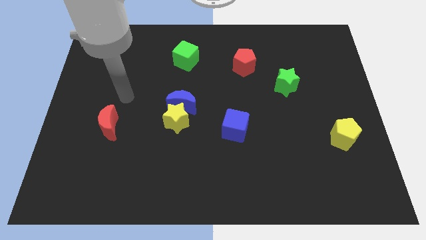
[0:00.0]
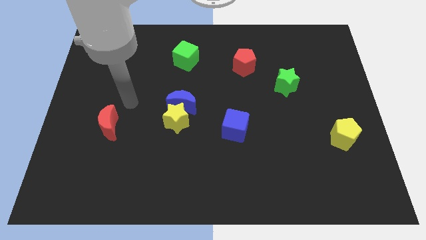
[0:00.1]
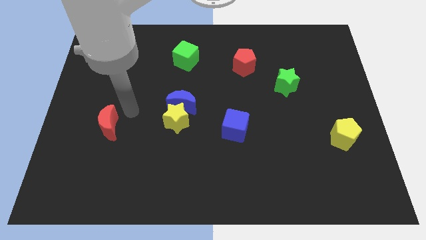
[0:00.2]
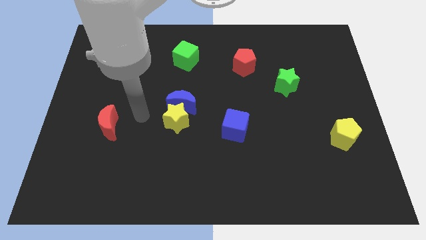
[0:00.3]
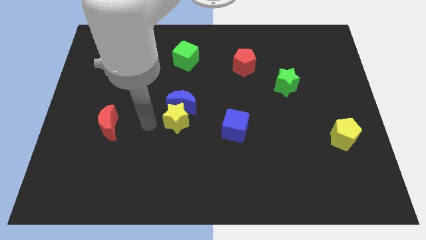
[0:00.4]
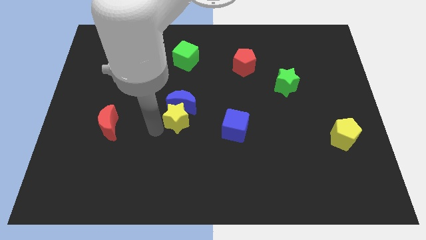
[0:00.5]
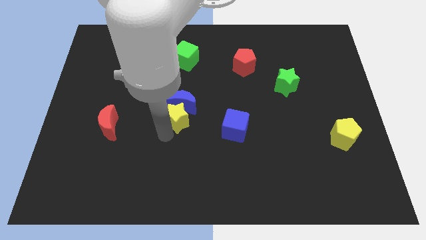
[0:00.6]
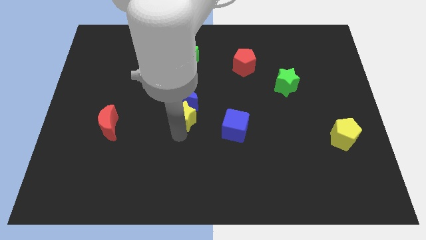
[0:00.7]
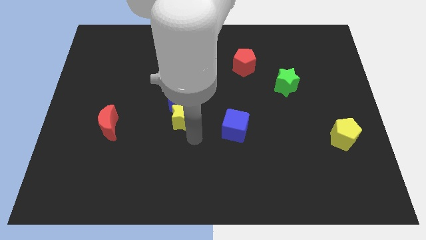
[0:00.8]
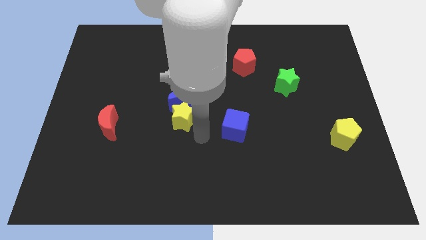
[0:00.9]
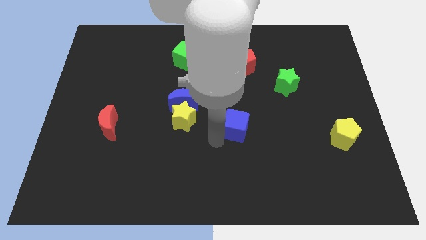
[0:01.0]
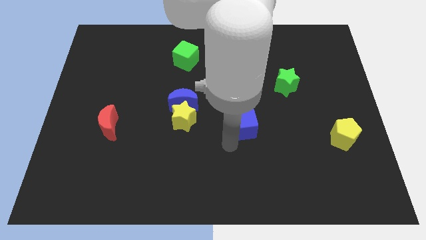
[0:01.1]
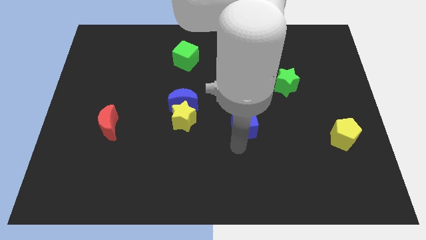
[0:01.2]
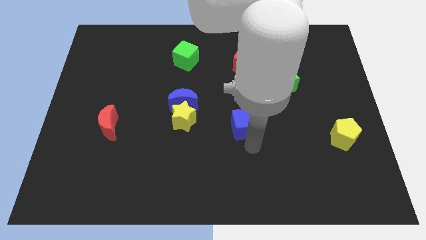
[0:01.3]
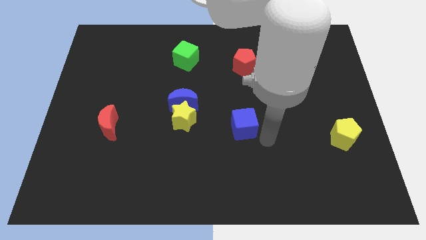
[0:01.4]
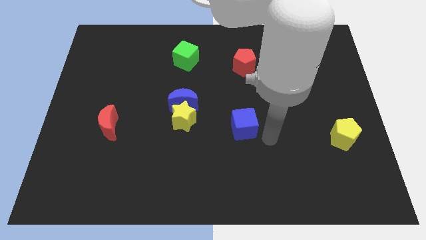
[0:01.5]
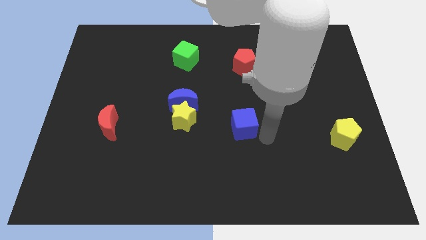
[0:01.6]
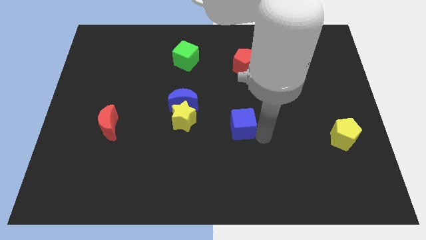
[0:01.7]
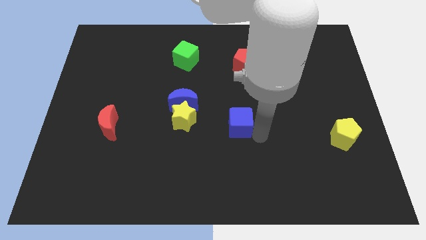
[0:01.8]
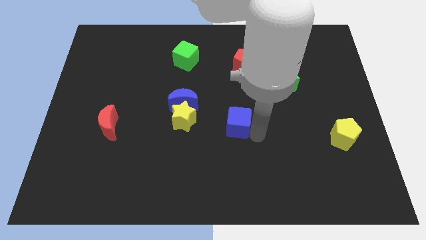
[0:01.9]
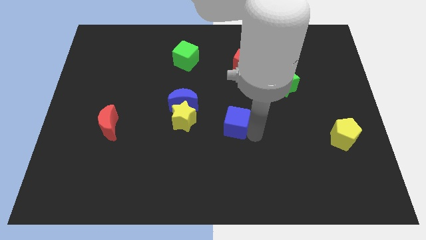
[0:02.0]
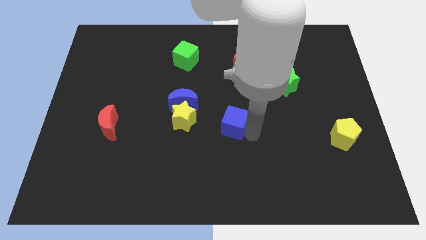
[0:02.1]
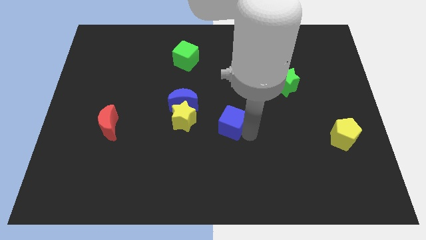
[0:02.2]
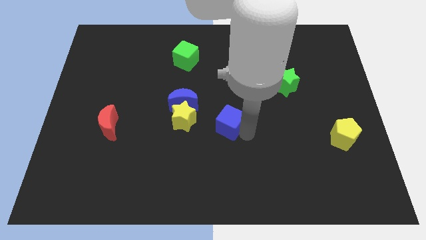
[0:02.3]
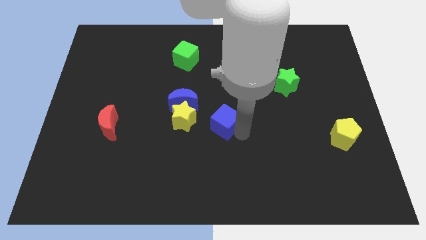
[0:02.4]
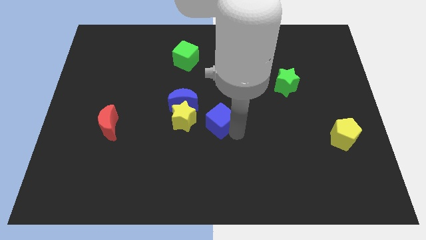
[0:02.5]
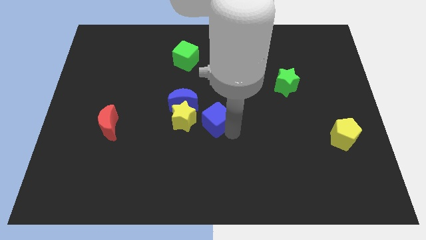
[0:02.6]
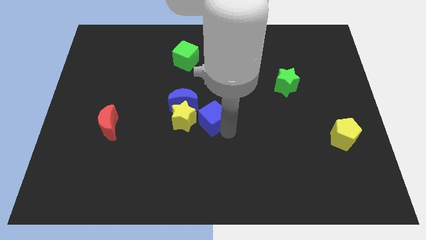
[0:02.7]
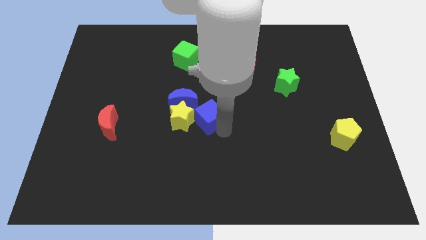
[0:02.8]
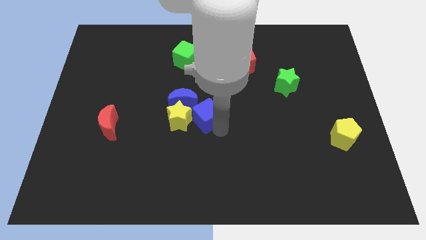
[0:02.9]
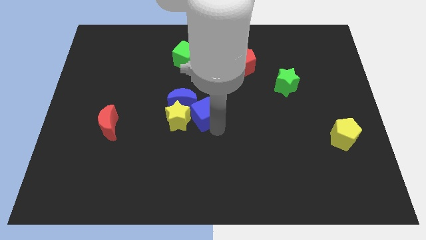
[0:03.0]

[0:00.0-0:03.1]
move the blue cube up and then left somewhat

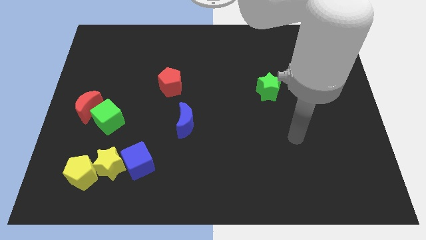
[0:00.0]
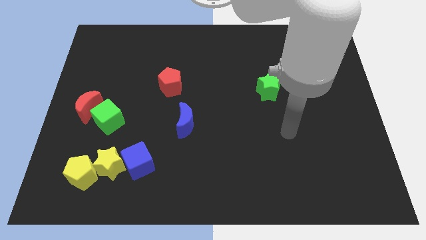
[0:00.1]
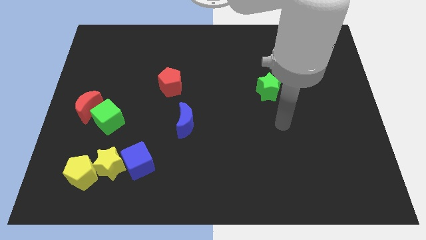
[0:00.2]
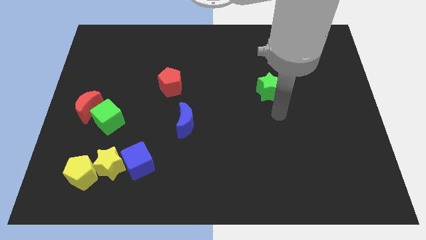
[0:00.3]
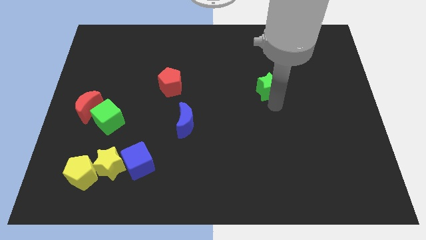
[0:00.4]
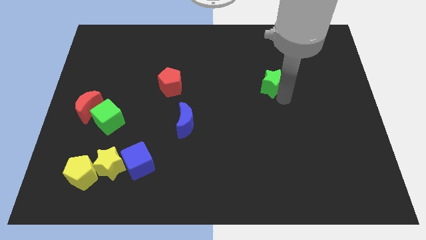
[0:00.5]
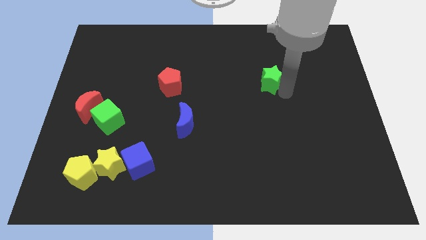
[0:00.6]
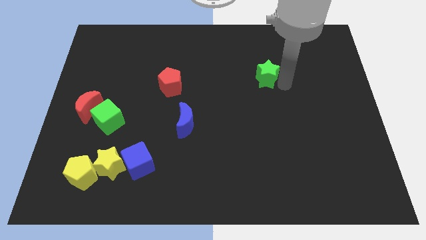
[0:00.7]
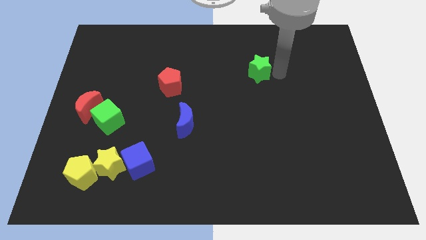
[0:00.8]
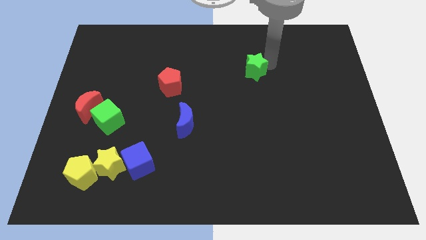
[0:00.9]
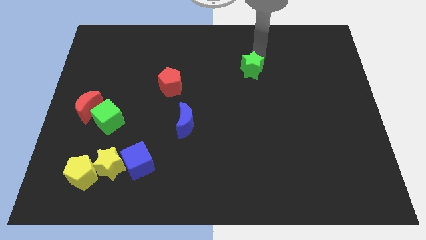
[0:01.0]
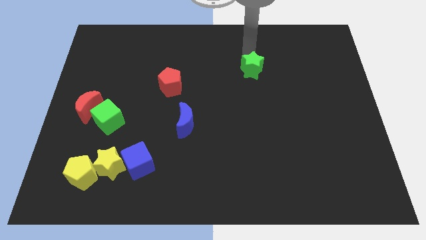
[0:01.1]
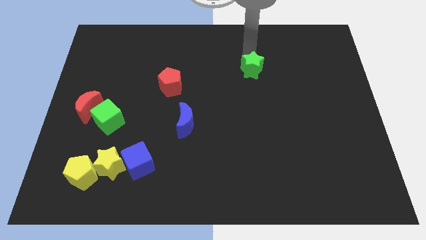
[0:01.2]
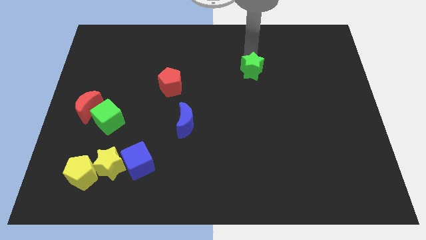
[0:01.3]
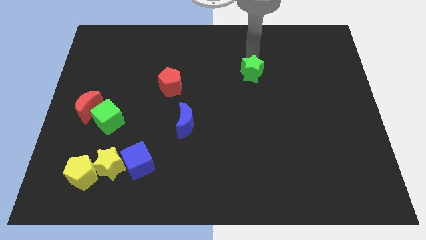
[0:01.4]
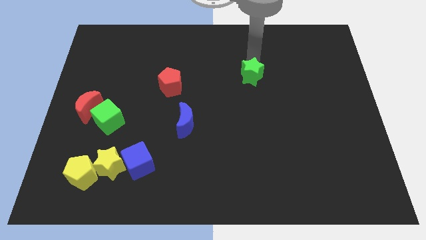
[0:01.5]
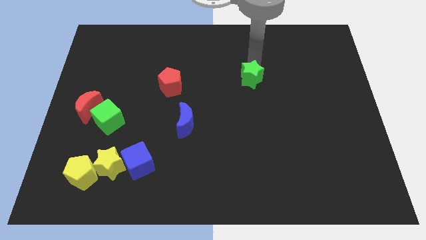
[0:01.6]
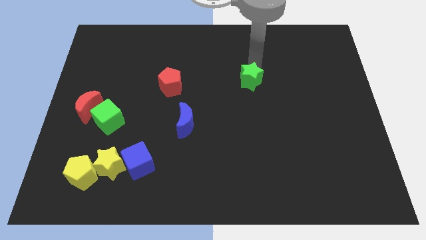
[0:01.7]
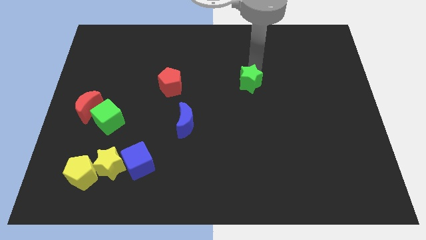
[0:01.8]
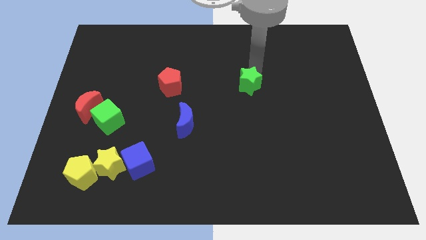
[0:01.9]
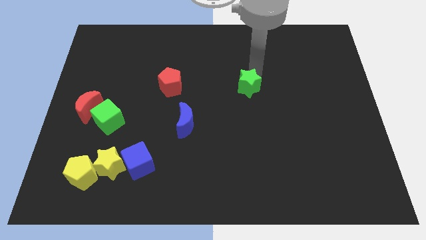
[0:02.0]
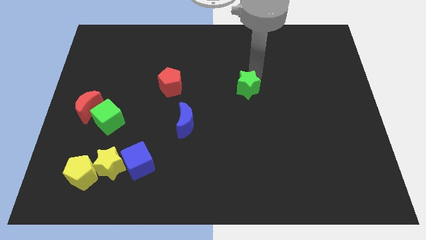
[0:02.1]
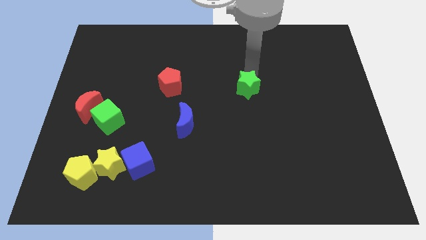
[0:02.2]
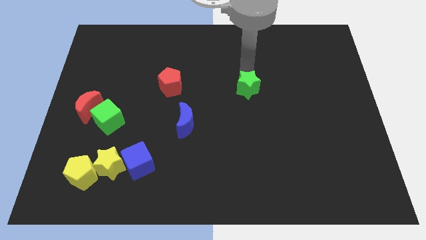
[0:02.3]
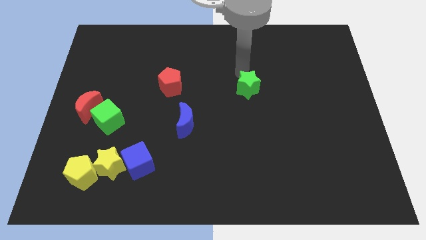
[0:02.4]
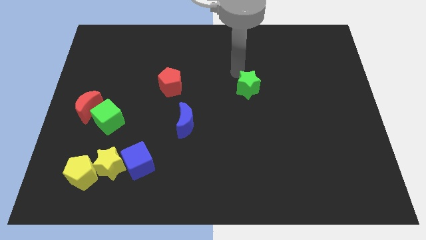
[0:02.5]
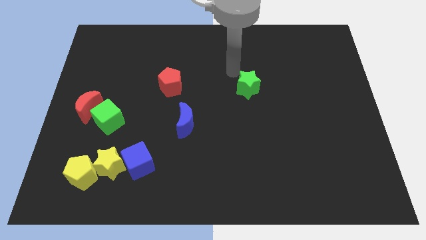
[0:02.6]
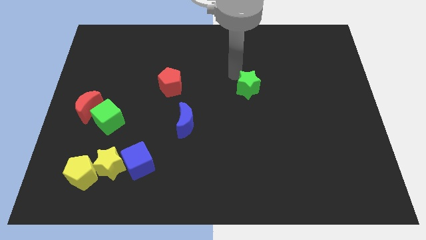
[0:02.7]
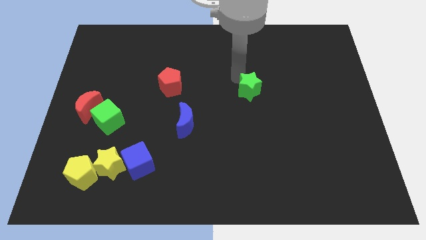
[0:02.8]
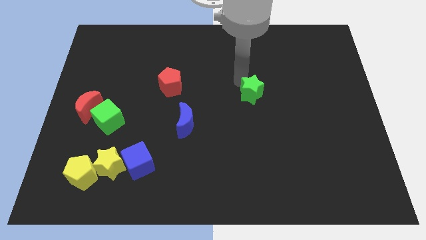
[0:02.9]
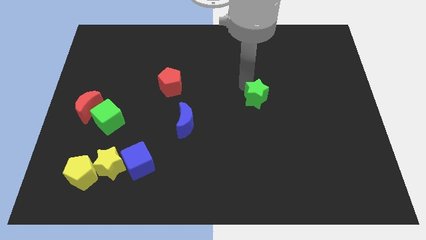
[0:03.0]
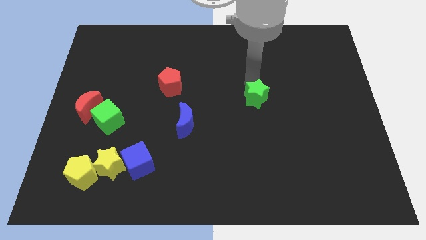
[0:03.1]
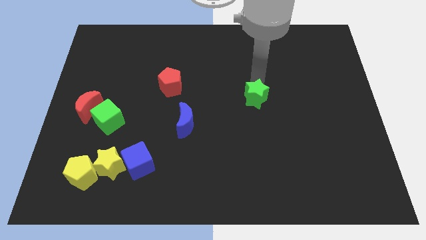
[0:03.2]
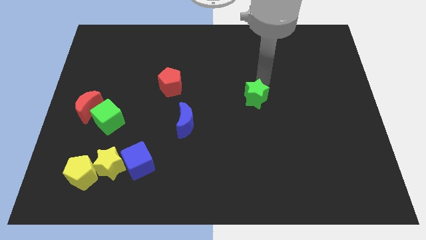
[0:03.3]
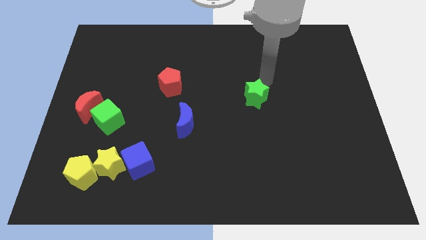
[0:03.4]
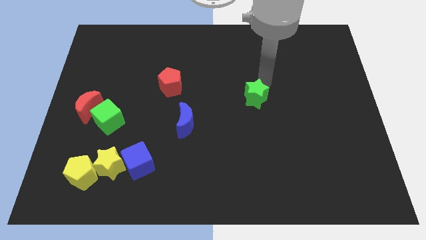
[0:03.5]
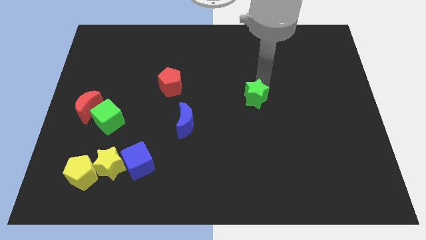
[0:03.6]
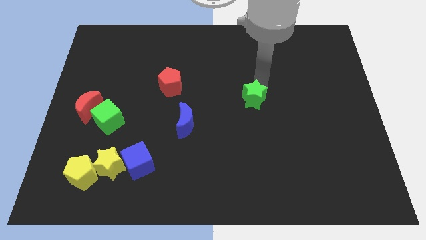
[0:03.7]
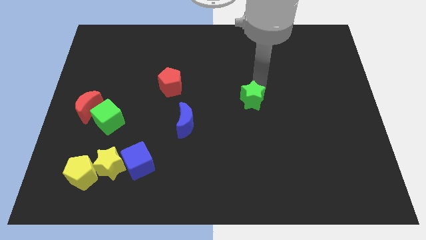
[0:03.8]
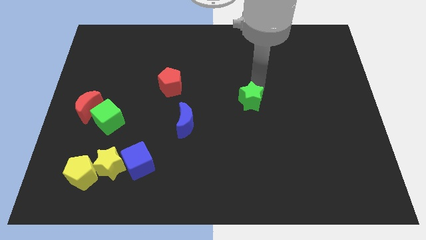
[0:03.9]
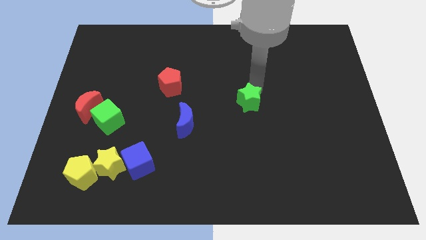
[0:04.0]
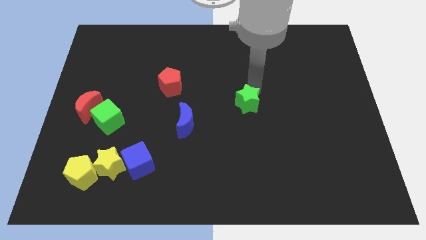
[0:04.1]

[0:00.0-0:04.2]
push the green star diagonally down and to the left somewhat

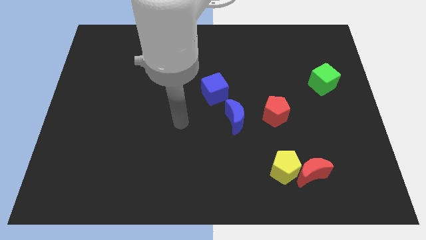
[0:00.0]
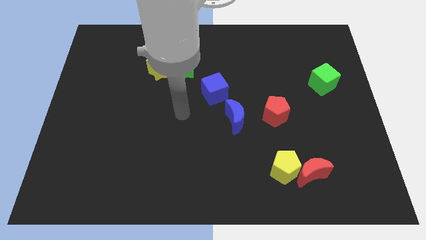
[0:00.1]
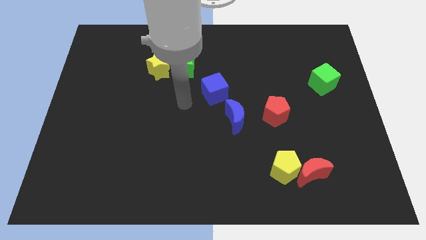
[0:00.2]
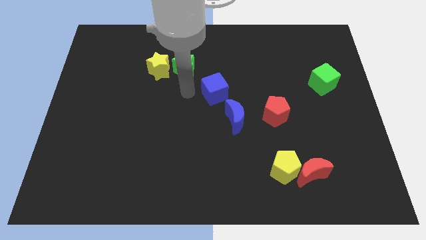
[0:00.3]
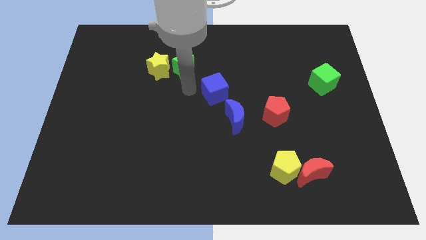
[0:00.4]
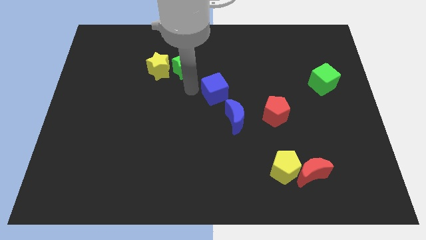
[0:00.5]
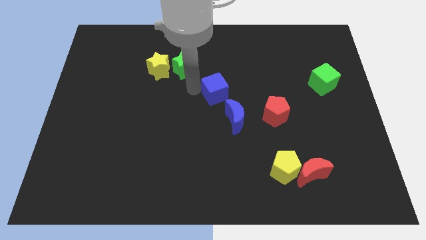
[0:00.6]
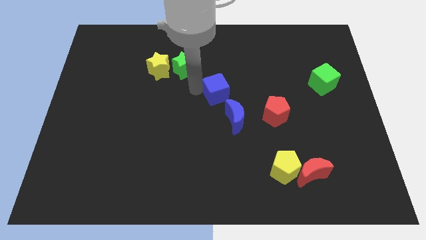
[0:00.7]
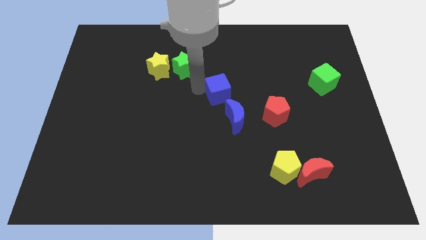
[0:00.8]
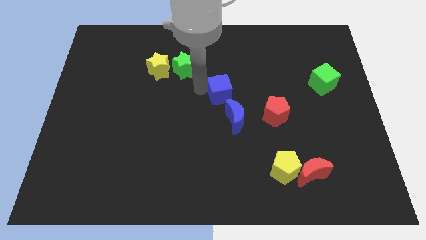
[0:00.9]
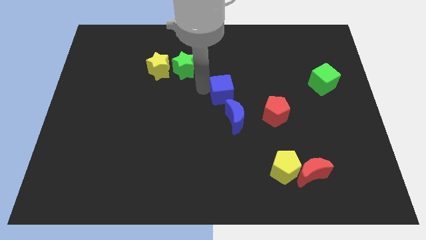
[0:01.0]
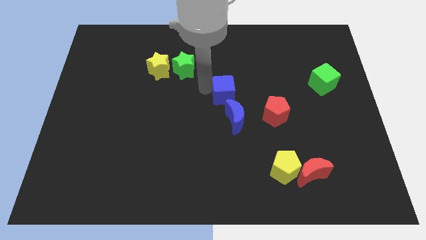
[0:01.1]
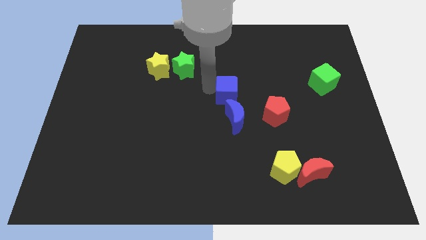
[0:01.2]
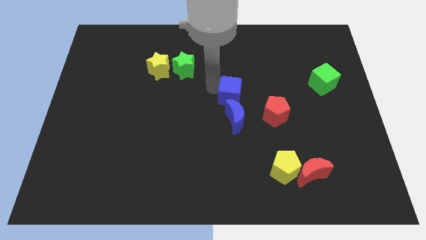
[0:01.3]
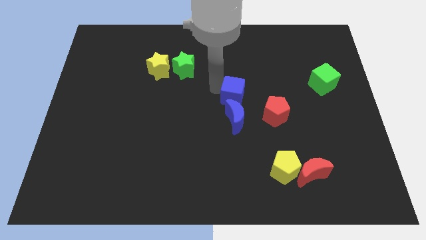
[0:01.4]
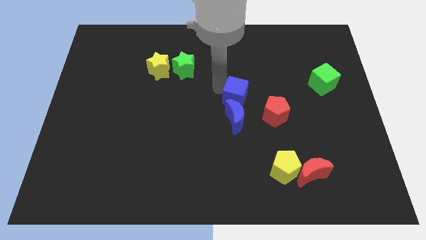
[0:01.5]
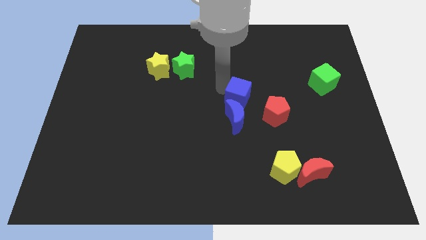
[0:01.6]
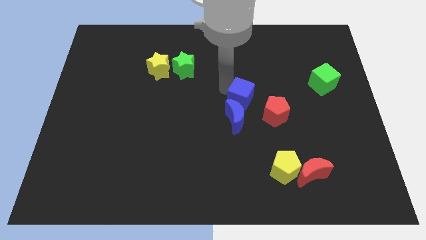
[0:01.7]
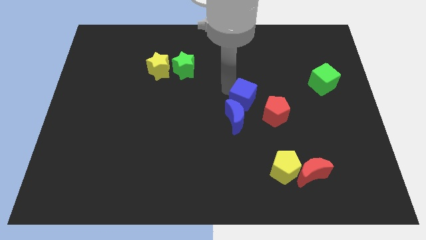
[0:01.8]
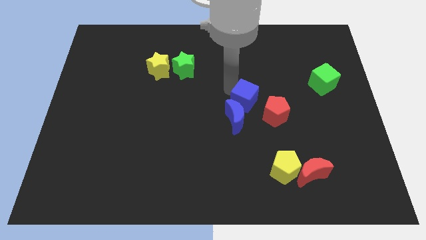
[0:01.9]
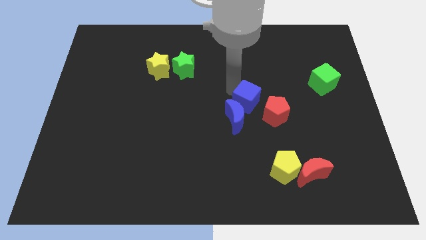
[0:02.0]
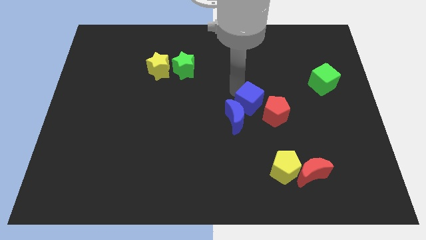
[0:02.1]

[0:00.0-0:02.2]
push the blue cube slightly downwards and right diagonally
